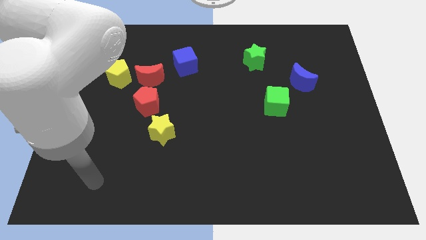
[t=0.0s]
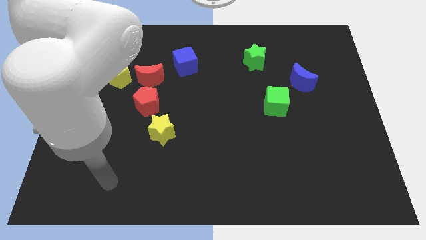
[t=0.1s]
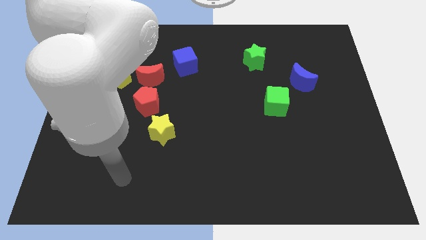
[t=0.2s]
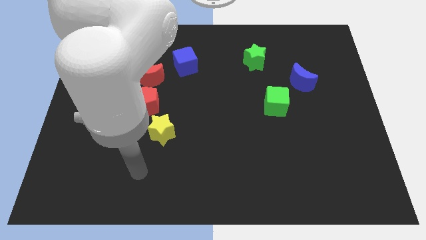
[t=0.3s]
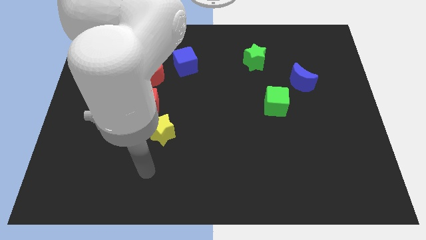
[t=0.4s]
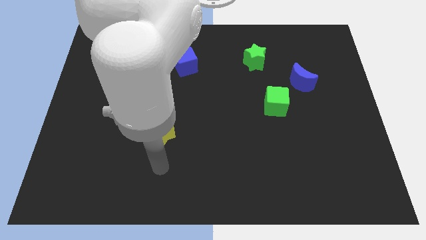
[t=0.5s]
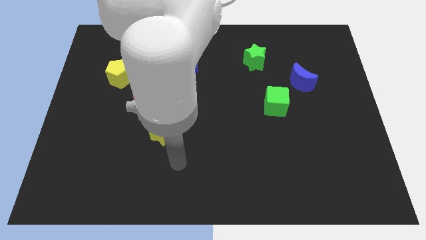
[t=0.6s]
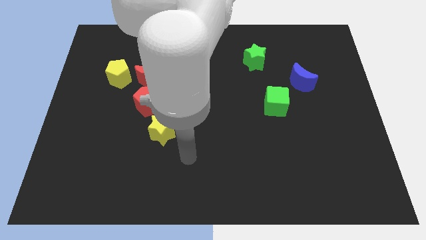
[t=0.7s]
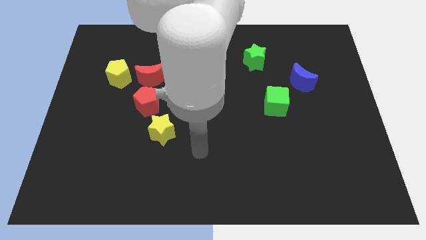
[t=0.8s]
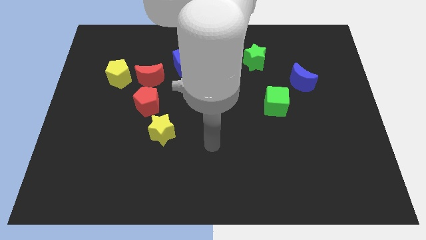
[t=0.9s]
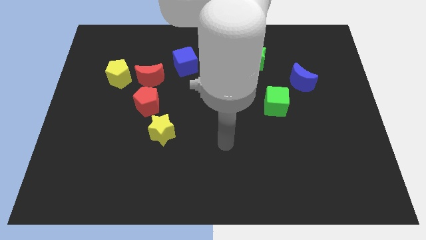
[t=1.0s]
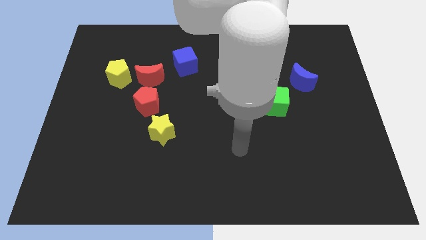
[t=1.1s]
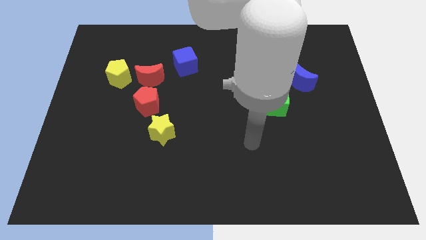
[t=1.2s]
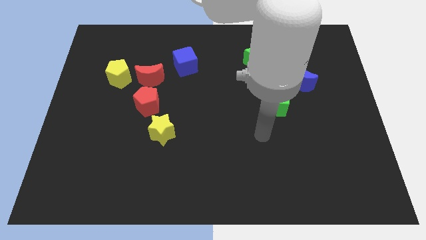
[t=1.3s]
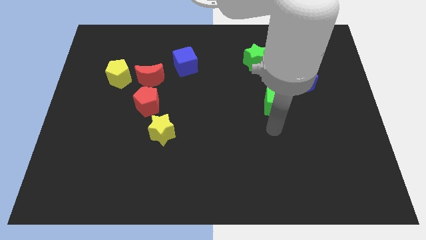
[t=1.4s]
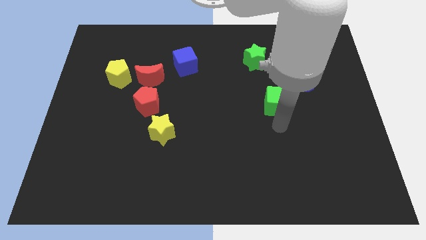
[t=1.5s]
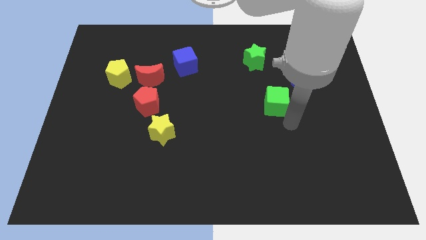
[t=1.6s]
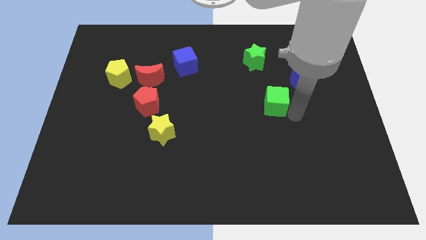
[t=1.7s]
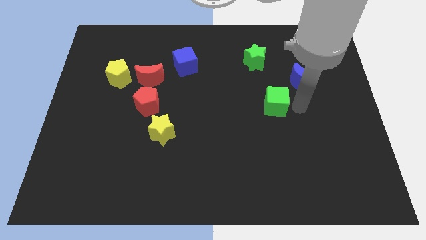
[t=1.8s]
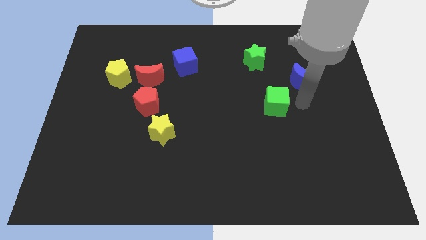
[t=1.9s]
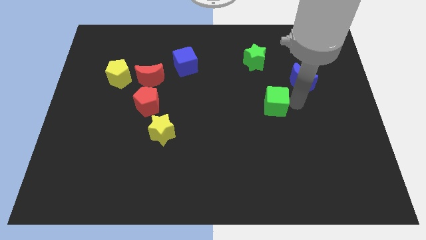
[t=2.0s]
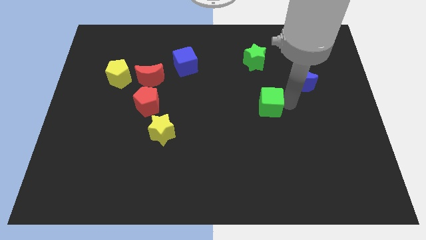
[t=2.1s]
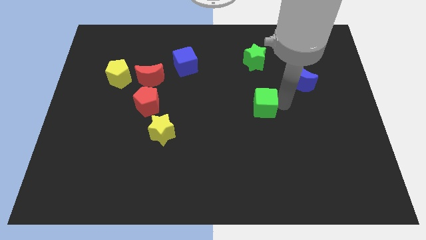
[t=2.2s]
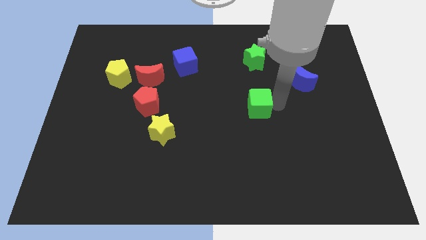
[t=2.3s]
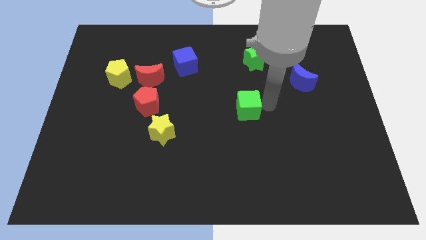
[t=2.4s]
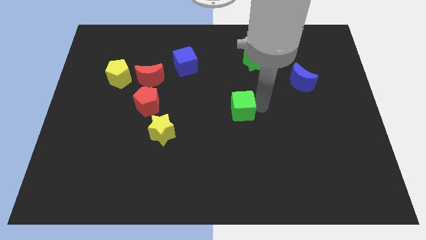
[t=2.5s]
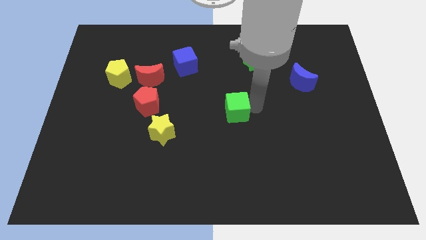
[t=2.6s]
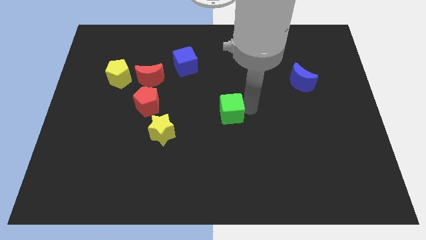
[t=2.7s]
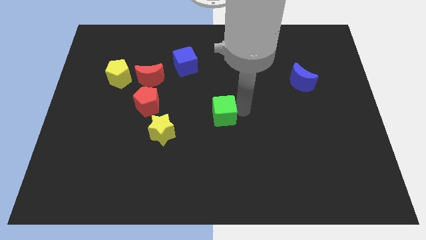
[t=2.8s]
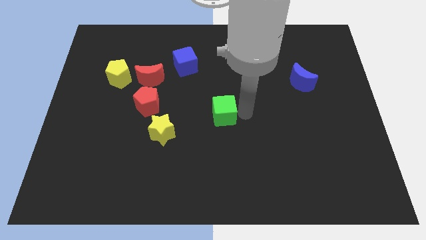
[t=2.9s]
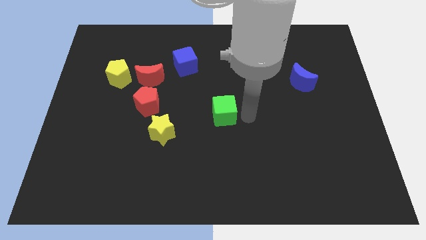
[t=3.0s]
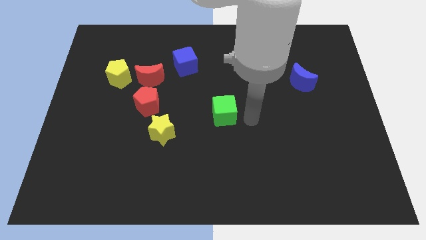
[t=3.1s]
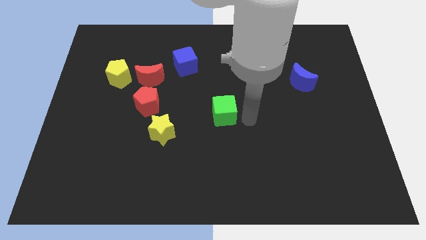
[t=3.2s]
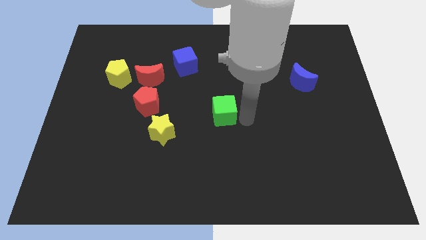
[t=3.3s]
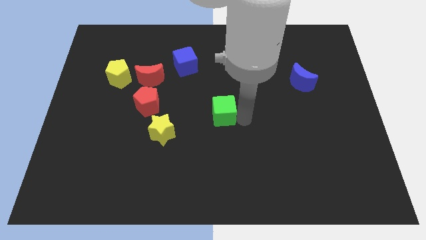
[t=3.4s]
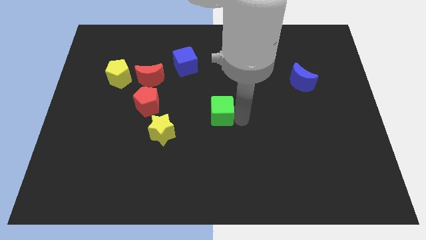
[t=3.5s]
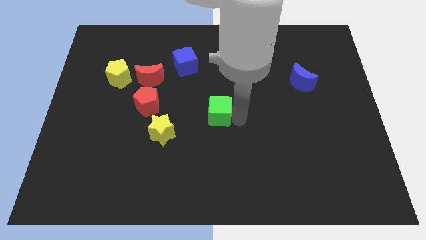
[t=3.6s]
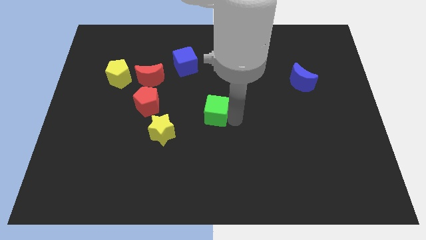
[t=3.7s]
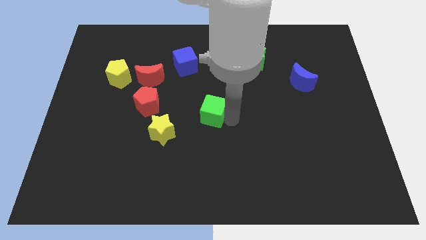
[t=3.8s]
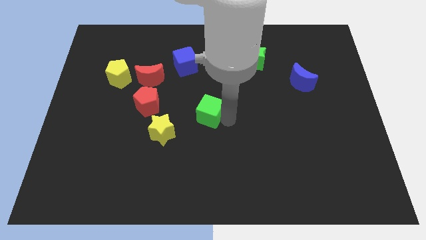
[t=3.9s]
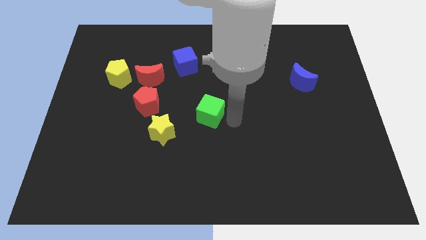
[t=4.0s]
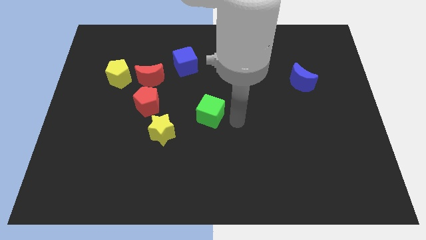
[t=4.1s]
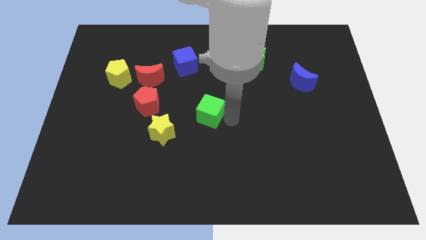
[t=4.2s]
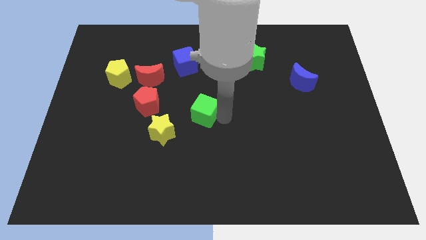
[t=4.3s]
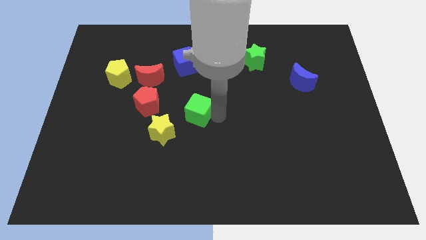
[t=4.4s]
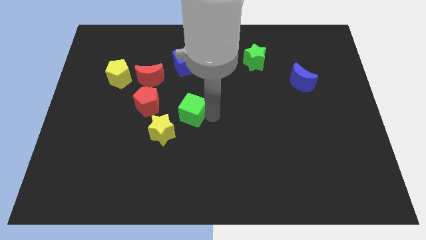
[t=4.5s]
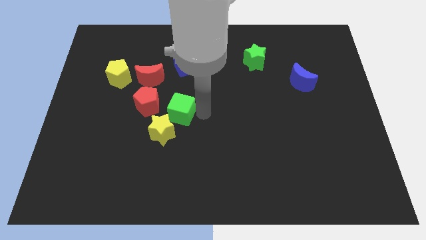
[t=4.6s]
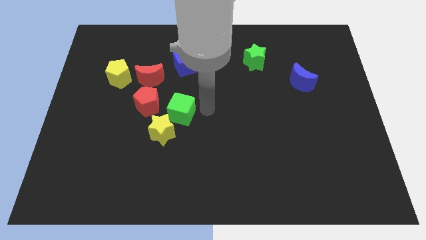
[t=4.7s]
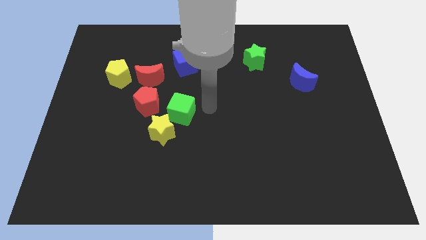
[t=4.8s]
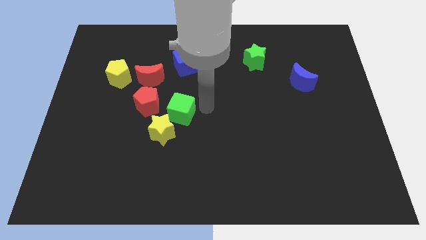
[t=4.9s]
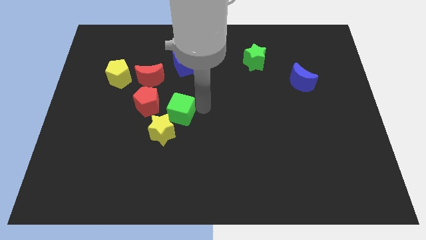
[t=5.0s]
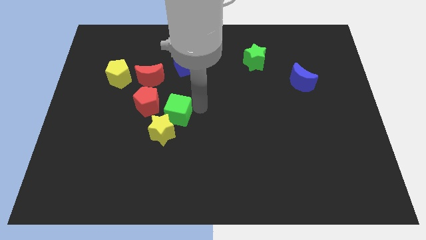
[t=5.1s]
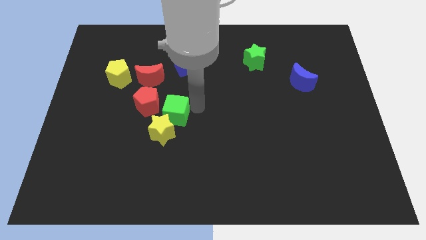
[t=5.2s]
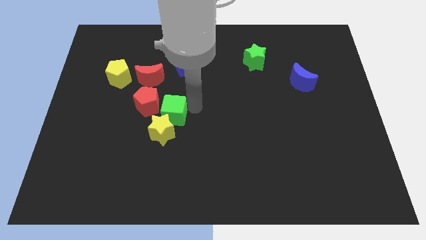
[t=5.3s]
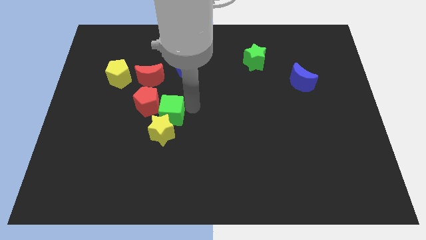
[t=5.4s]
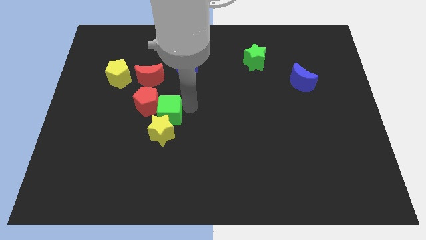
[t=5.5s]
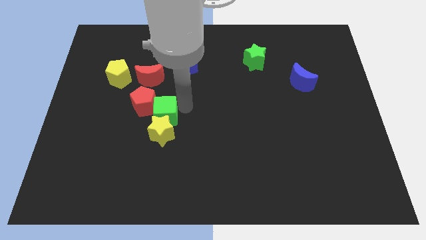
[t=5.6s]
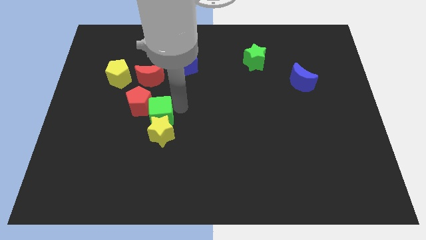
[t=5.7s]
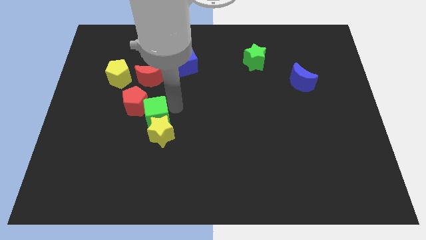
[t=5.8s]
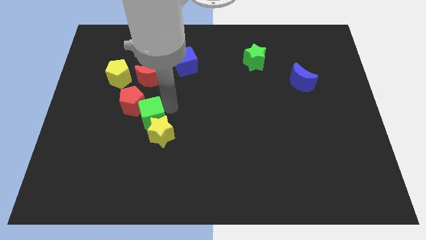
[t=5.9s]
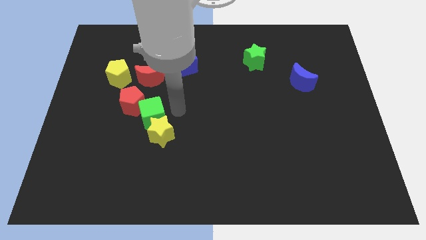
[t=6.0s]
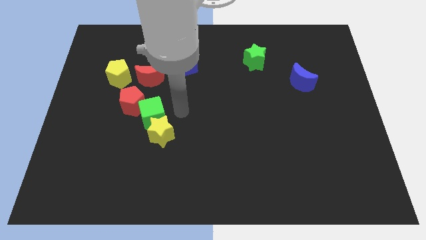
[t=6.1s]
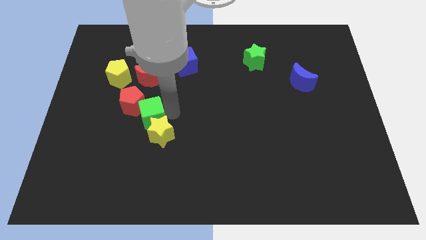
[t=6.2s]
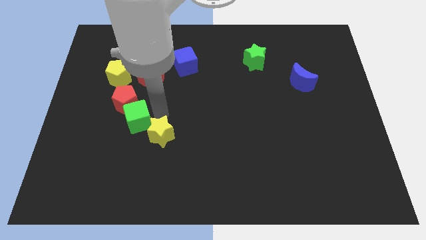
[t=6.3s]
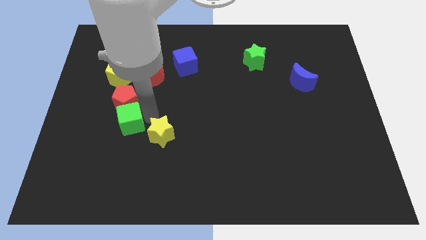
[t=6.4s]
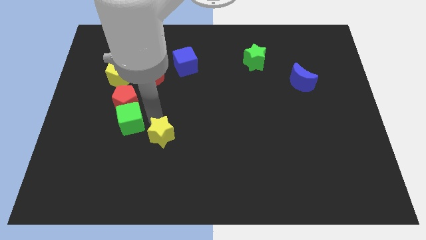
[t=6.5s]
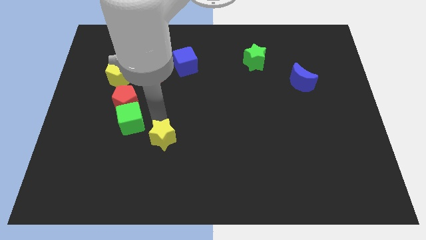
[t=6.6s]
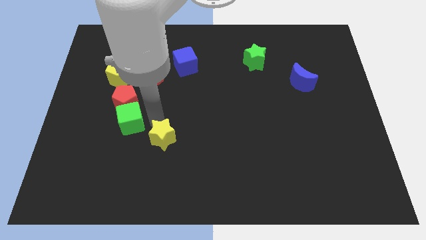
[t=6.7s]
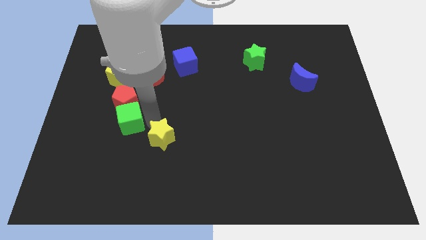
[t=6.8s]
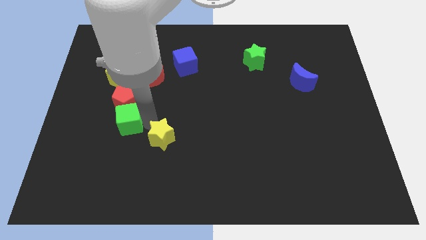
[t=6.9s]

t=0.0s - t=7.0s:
put the green cube to the bottom left side of the red pentagon
